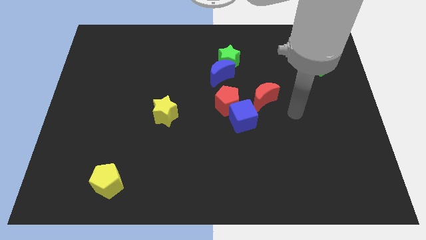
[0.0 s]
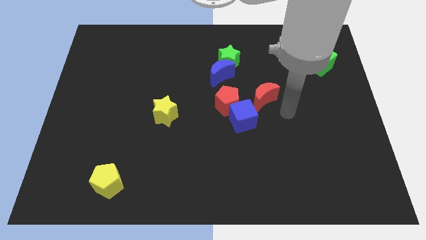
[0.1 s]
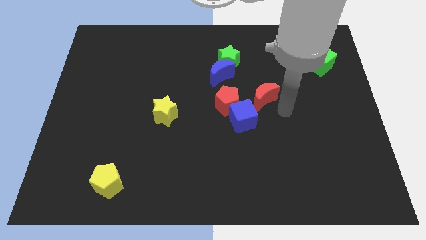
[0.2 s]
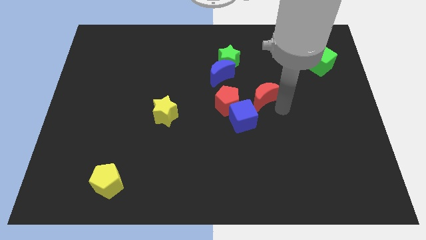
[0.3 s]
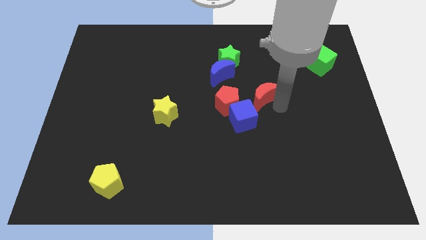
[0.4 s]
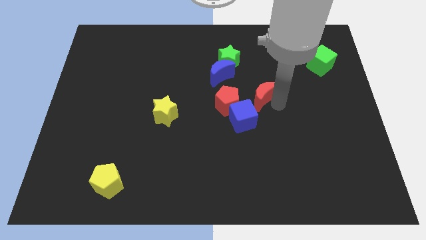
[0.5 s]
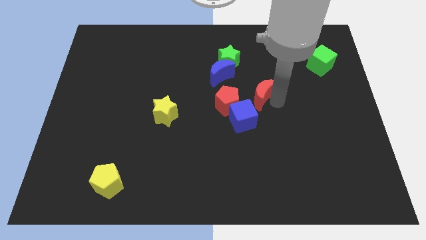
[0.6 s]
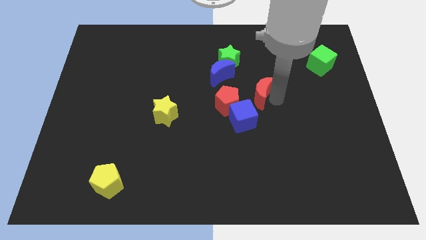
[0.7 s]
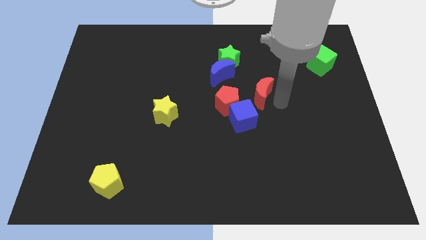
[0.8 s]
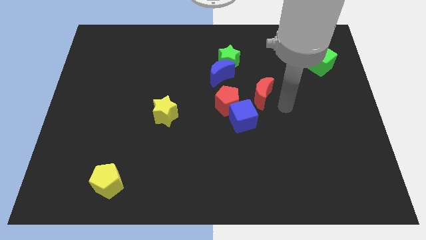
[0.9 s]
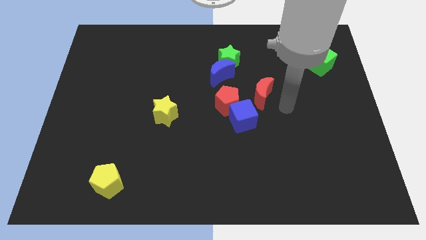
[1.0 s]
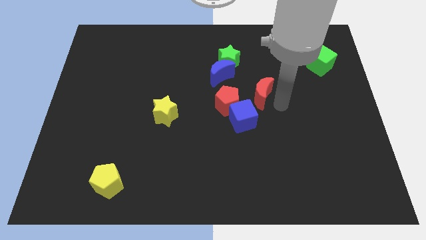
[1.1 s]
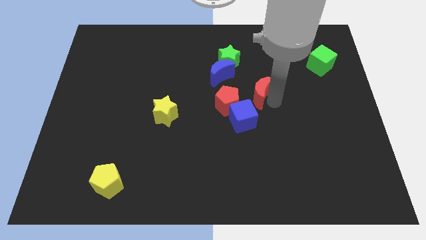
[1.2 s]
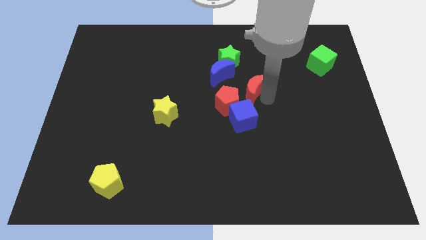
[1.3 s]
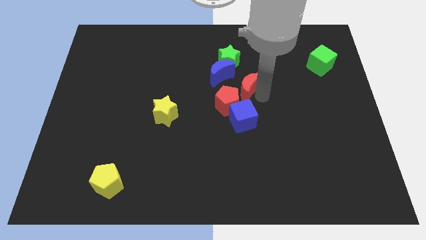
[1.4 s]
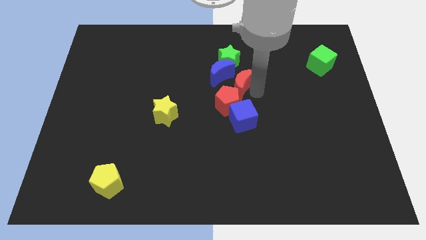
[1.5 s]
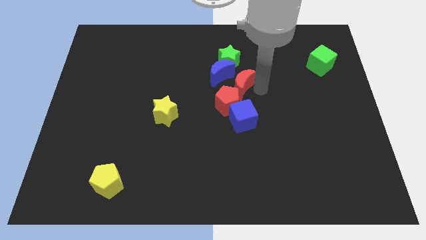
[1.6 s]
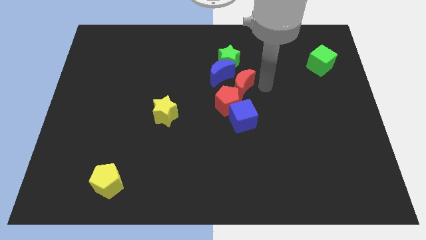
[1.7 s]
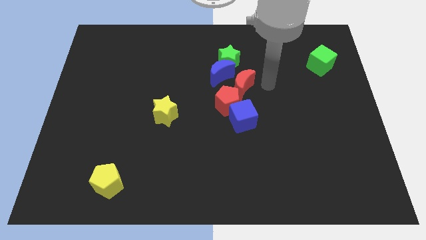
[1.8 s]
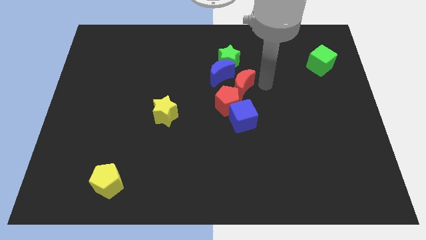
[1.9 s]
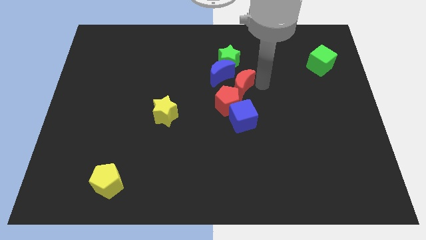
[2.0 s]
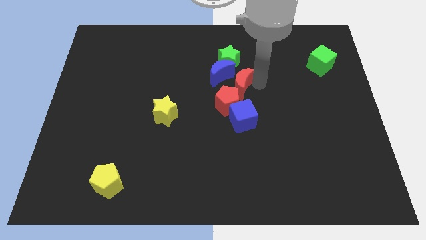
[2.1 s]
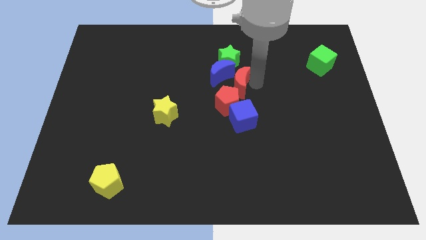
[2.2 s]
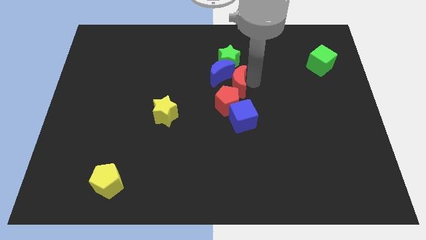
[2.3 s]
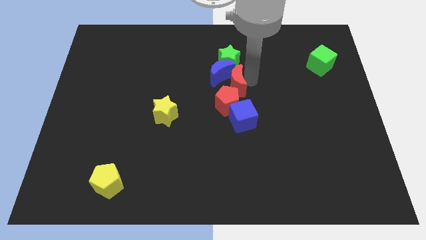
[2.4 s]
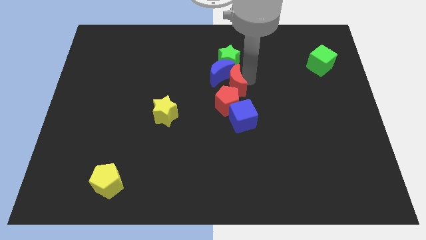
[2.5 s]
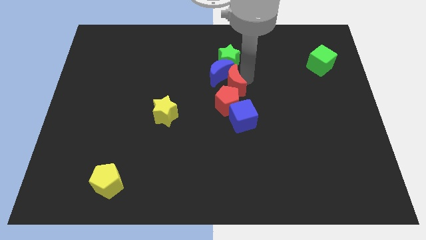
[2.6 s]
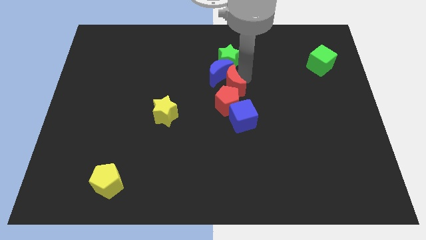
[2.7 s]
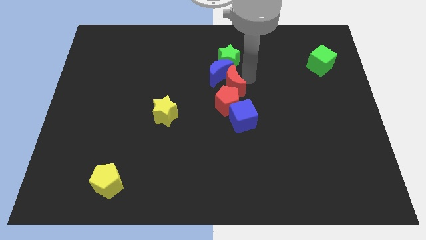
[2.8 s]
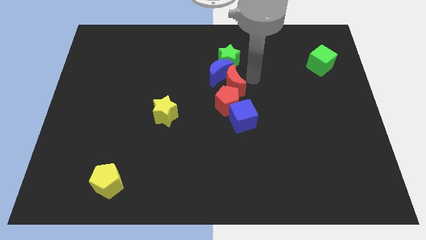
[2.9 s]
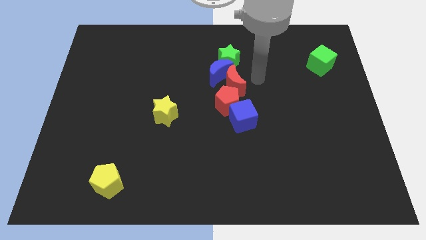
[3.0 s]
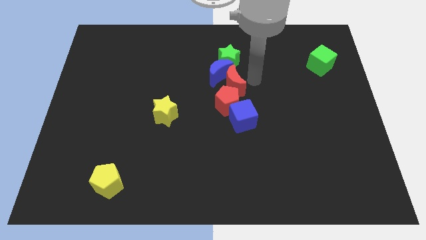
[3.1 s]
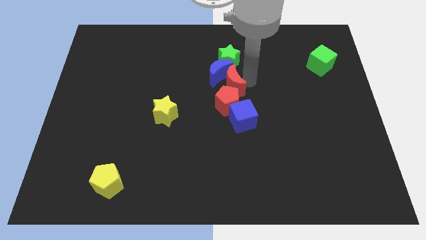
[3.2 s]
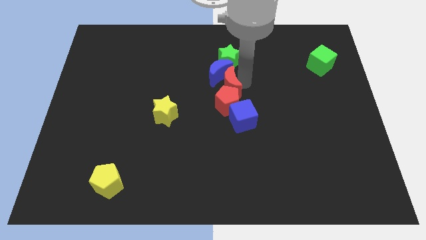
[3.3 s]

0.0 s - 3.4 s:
move the red moon a little bit left

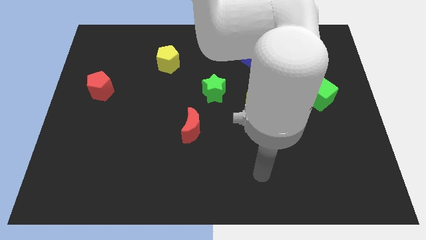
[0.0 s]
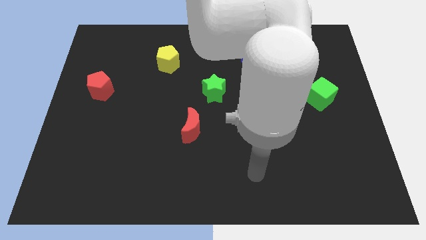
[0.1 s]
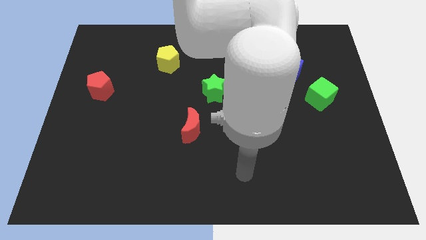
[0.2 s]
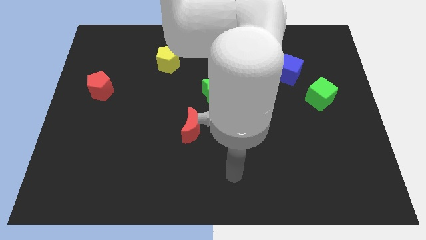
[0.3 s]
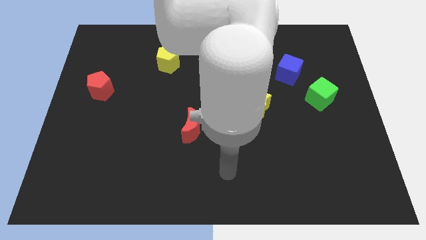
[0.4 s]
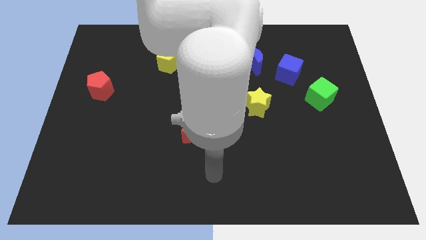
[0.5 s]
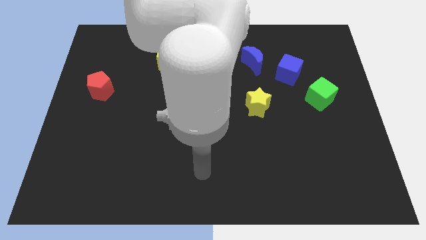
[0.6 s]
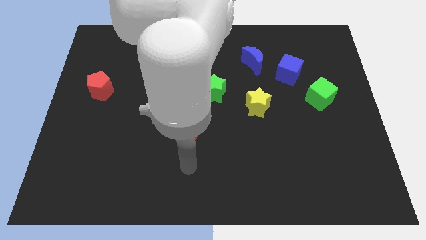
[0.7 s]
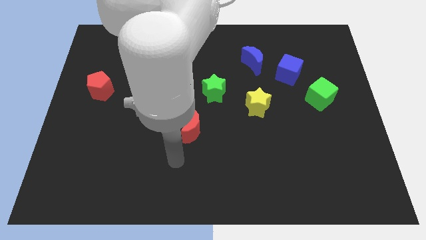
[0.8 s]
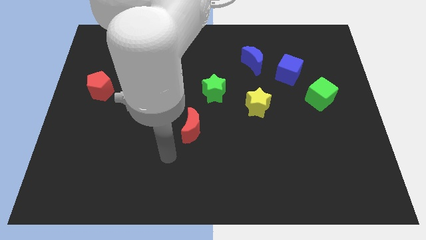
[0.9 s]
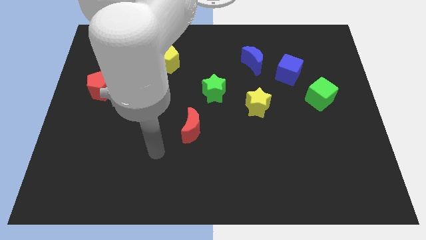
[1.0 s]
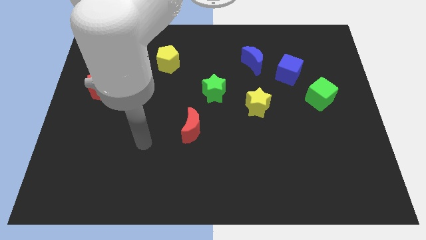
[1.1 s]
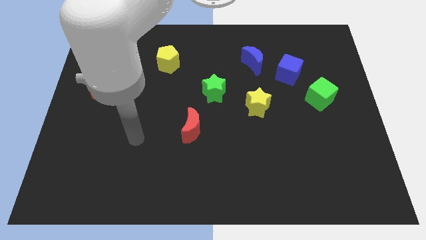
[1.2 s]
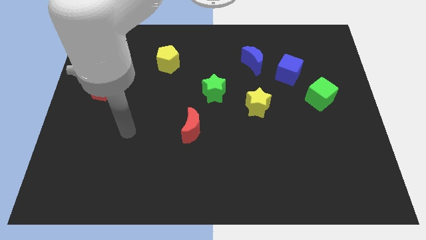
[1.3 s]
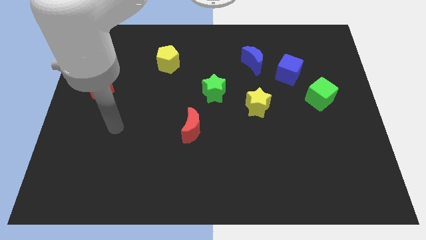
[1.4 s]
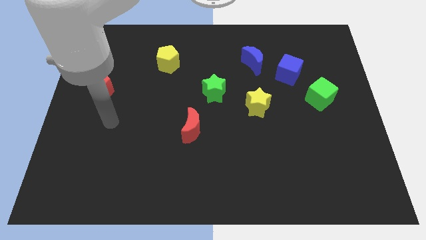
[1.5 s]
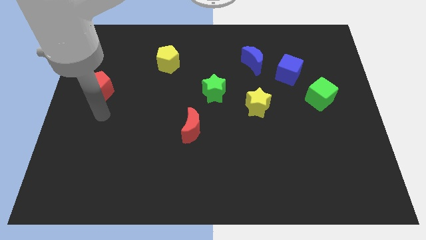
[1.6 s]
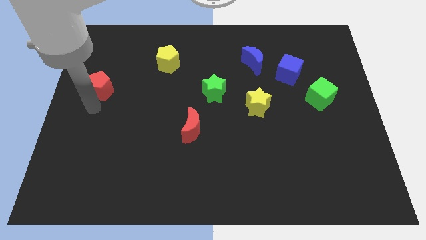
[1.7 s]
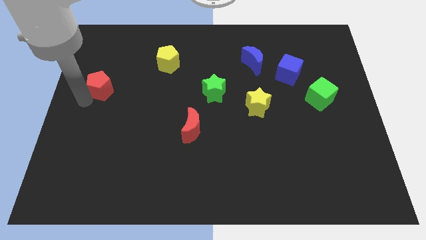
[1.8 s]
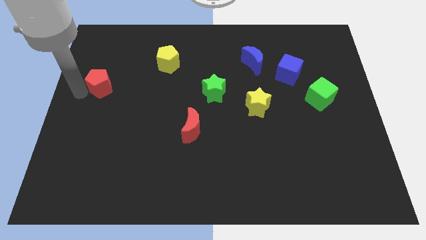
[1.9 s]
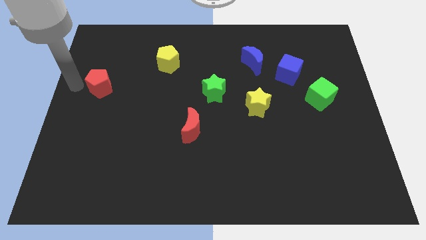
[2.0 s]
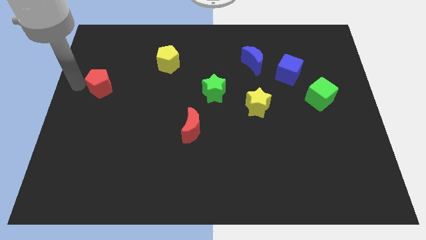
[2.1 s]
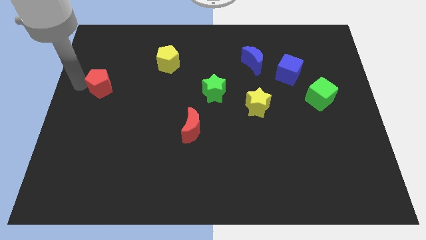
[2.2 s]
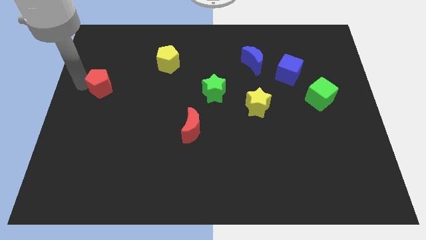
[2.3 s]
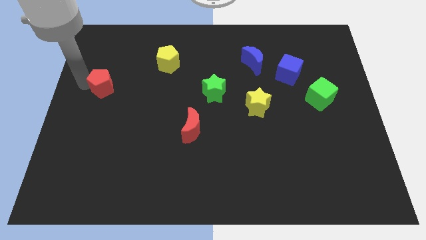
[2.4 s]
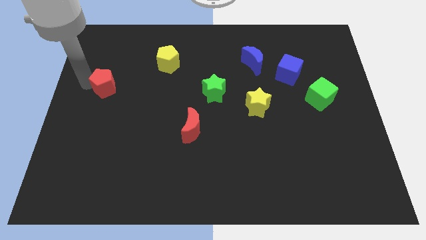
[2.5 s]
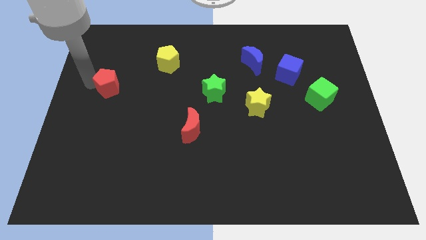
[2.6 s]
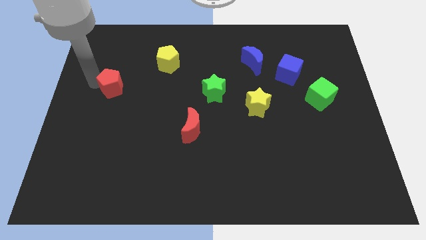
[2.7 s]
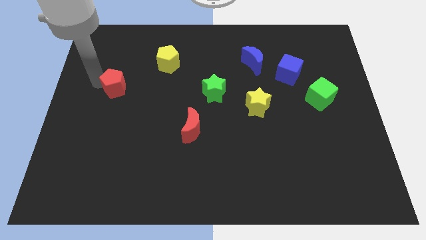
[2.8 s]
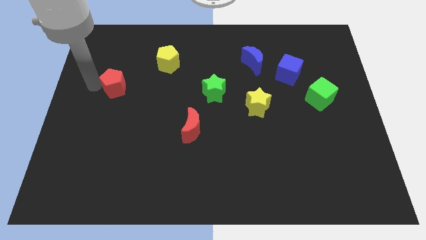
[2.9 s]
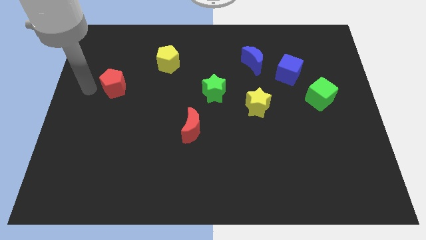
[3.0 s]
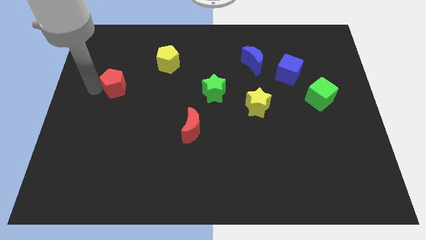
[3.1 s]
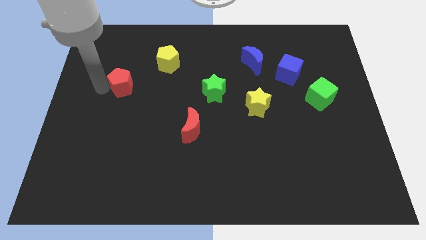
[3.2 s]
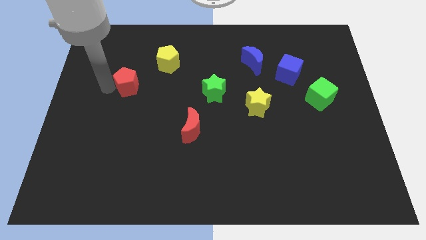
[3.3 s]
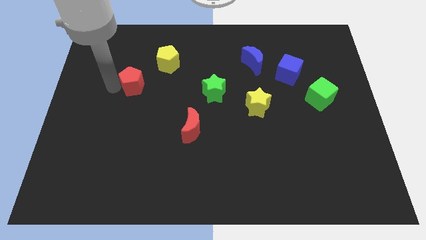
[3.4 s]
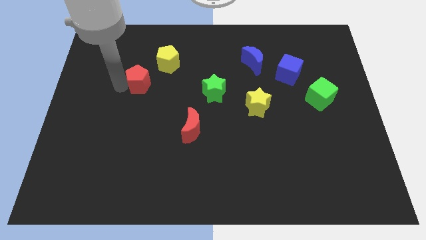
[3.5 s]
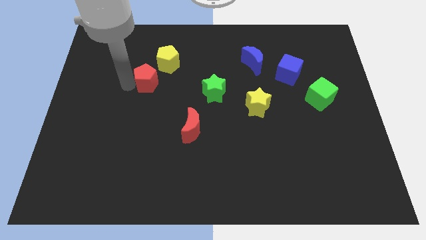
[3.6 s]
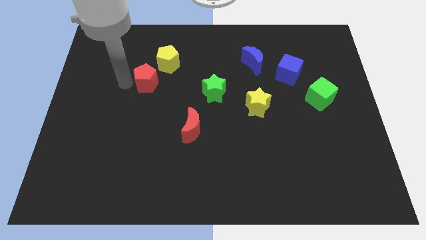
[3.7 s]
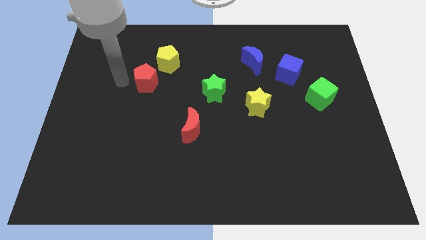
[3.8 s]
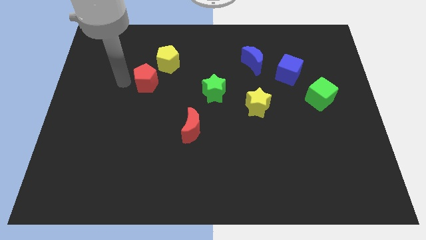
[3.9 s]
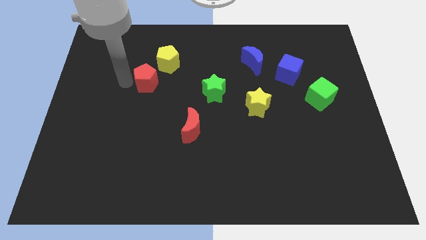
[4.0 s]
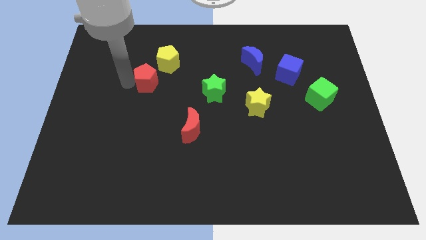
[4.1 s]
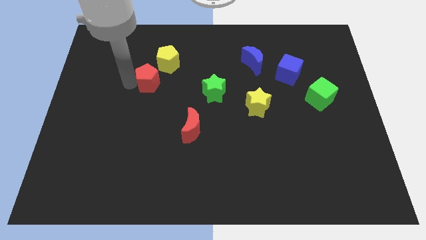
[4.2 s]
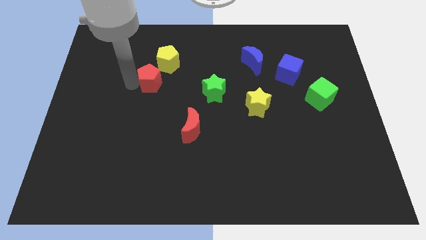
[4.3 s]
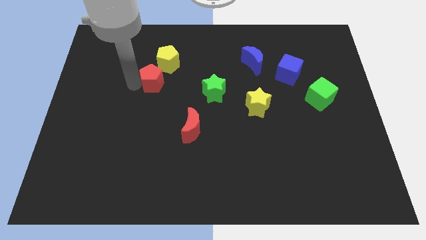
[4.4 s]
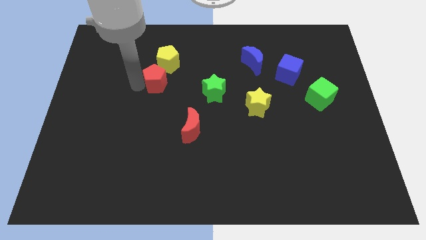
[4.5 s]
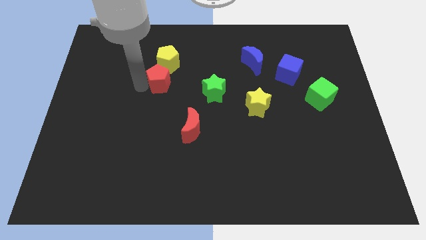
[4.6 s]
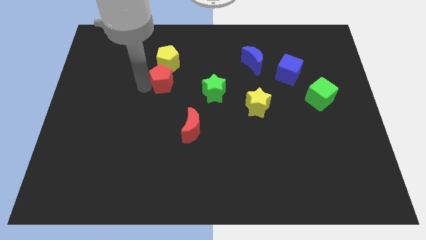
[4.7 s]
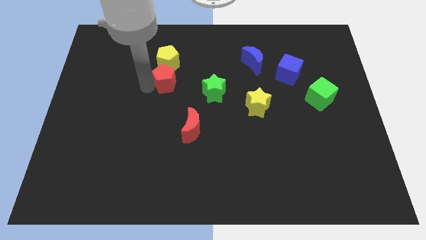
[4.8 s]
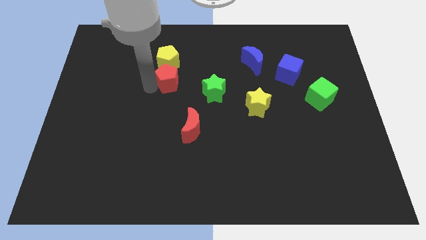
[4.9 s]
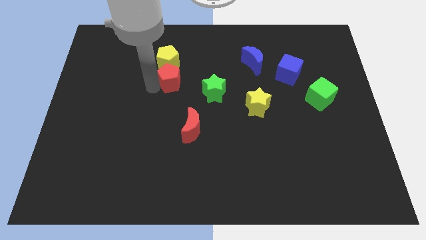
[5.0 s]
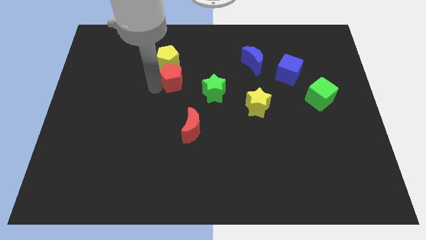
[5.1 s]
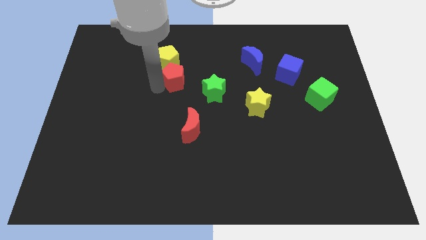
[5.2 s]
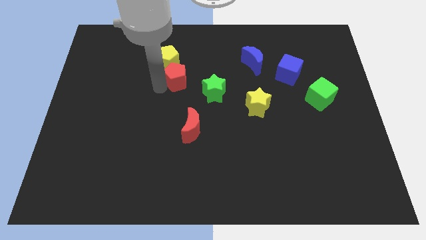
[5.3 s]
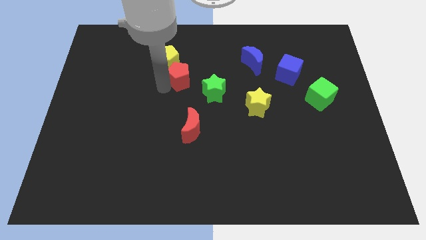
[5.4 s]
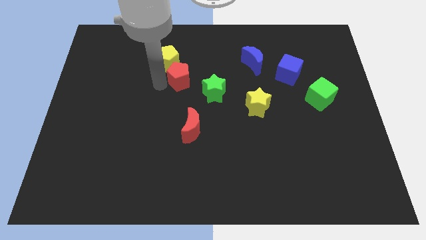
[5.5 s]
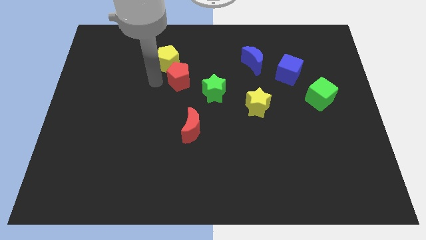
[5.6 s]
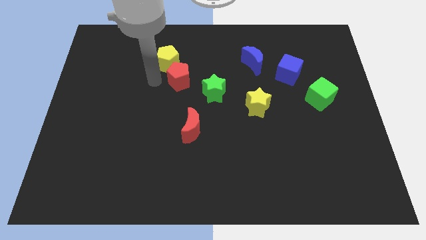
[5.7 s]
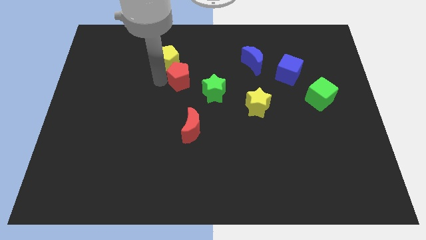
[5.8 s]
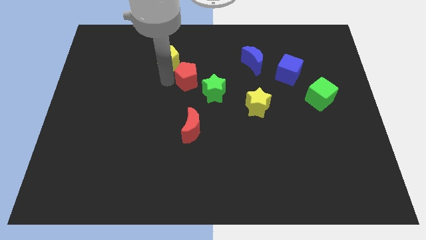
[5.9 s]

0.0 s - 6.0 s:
push the red pentagon right
